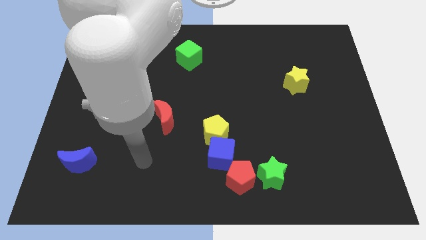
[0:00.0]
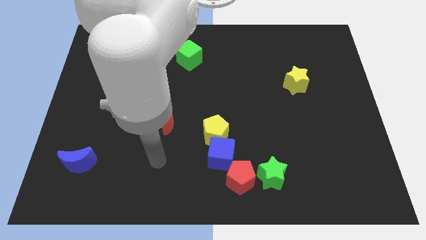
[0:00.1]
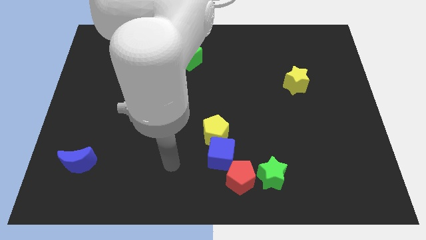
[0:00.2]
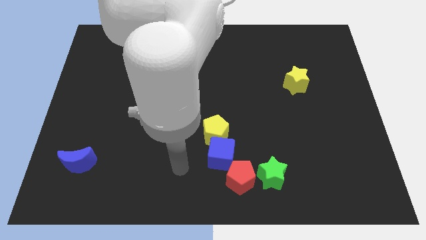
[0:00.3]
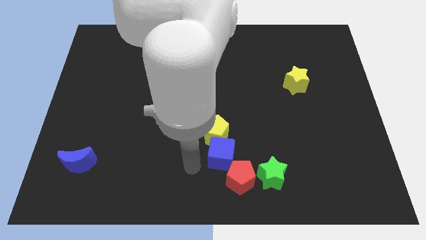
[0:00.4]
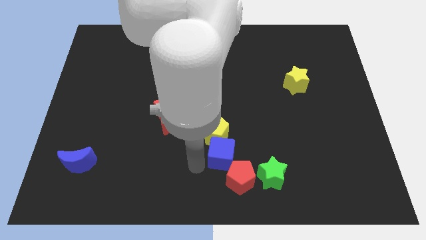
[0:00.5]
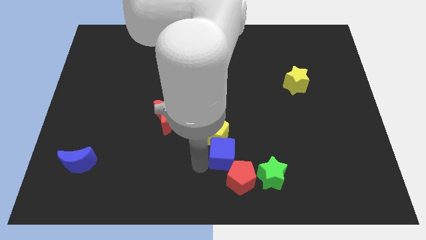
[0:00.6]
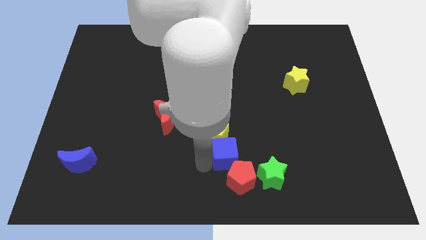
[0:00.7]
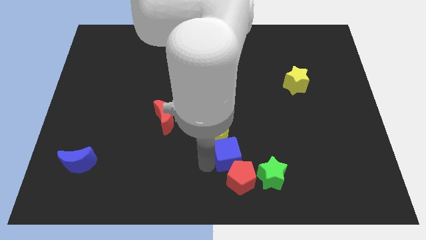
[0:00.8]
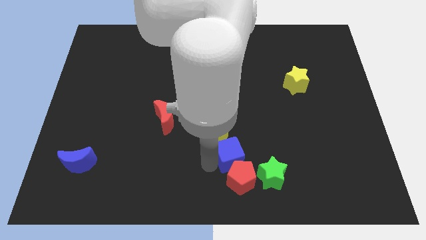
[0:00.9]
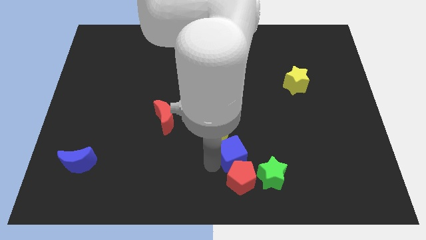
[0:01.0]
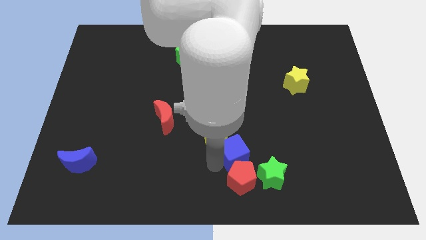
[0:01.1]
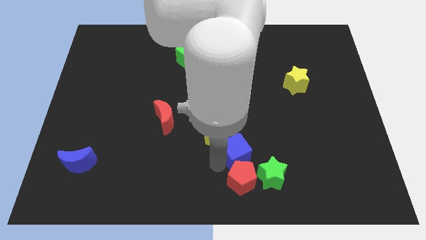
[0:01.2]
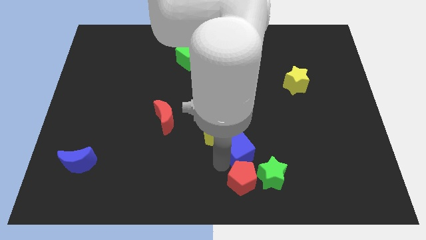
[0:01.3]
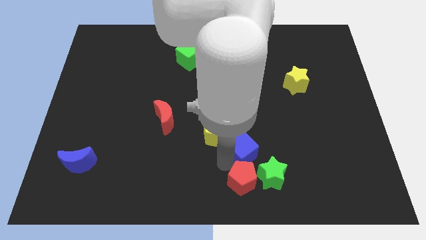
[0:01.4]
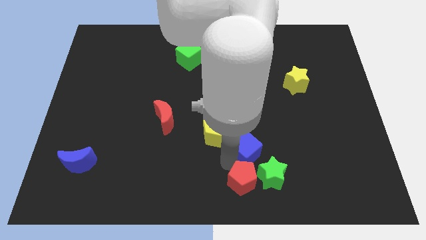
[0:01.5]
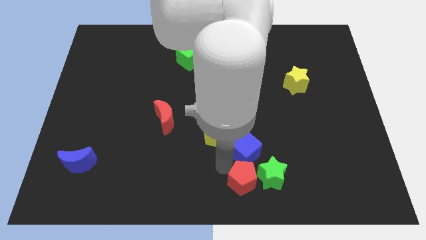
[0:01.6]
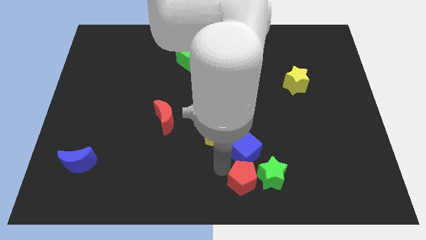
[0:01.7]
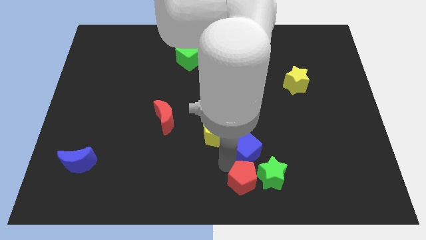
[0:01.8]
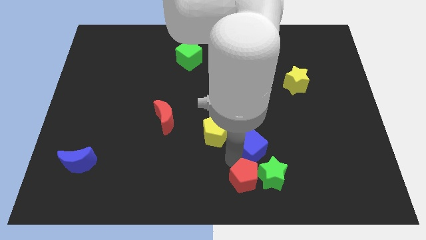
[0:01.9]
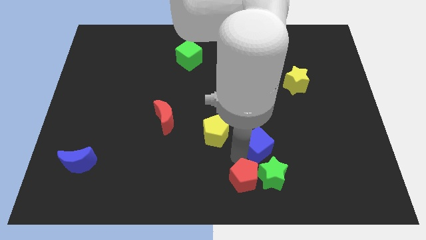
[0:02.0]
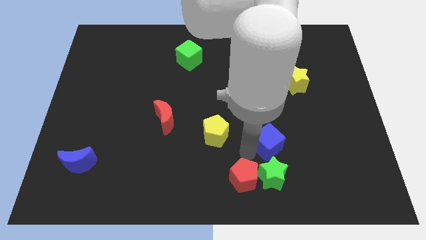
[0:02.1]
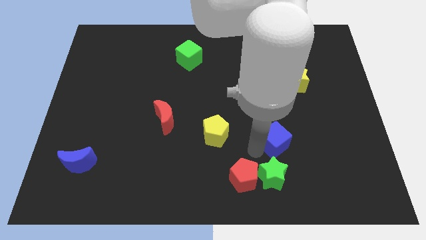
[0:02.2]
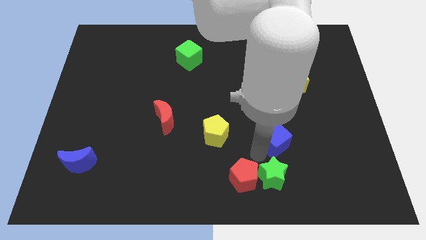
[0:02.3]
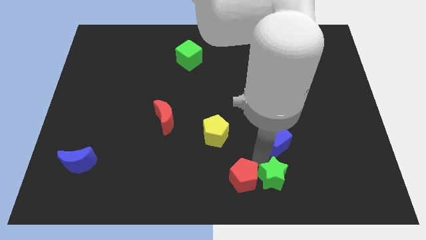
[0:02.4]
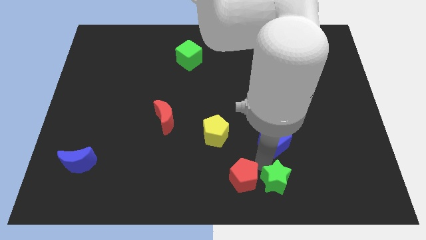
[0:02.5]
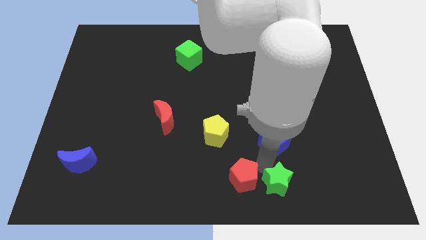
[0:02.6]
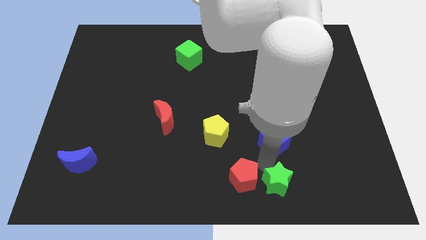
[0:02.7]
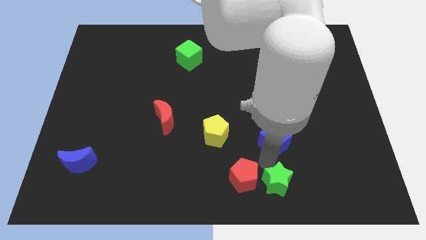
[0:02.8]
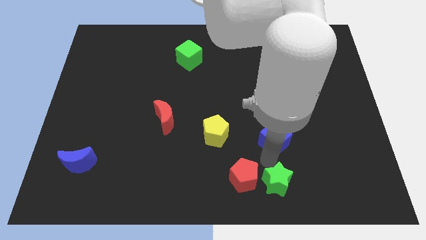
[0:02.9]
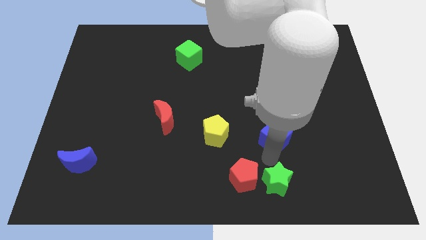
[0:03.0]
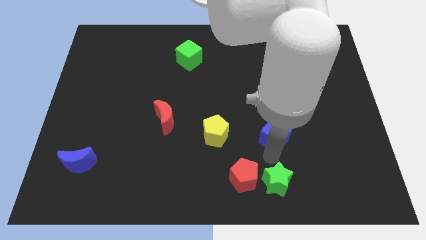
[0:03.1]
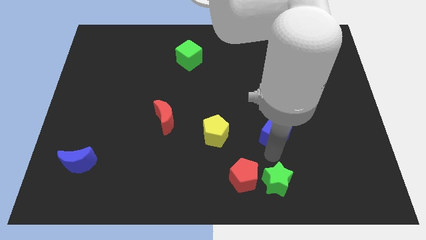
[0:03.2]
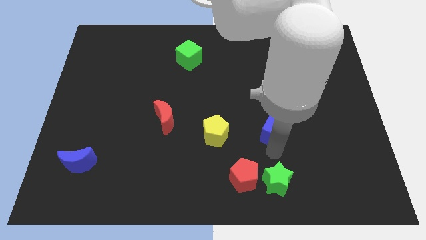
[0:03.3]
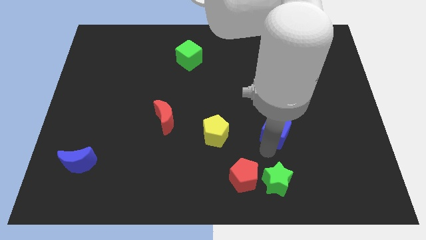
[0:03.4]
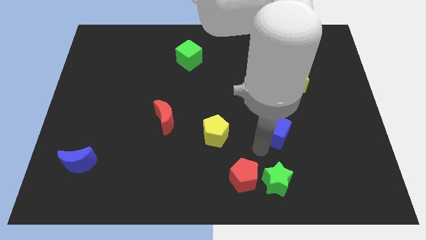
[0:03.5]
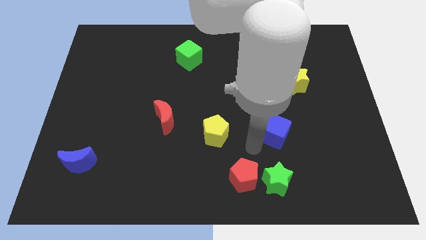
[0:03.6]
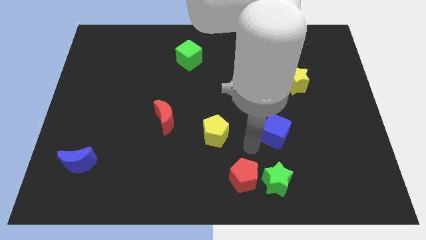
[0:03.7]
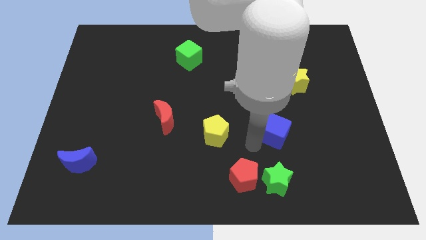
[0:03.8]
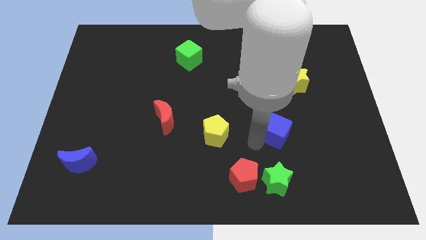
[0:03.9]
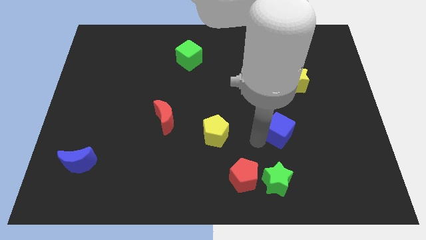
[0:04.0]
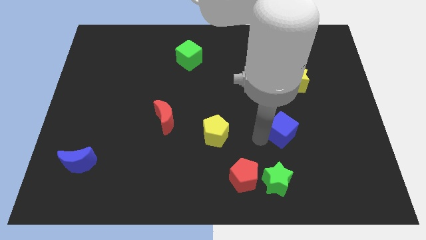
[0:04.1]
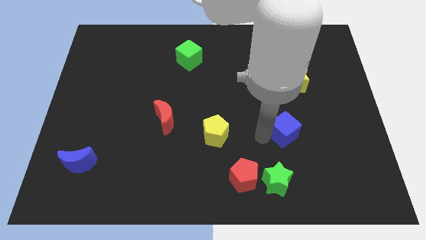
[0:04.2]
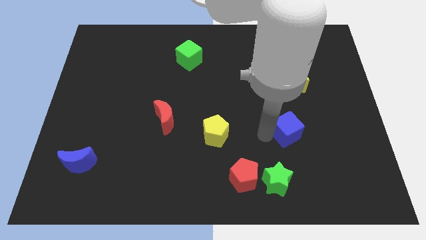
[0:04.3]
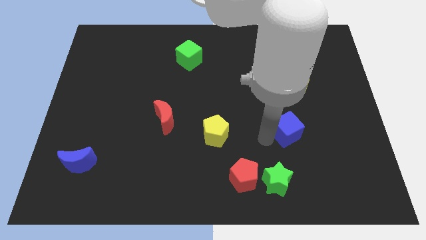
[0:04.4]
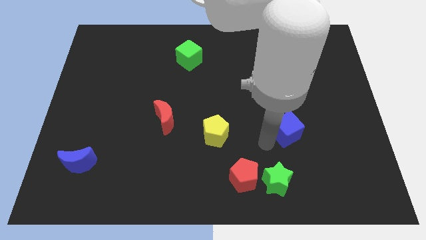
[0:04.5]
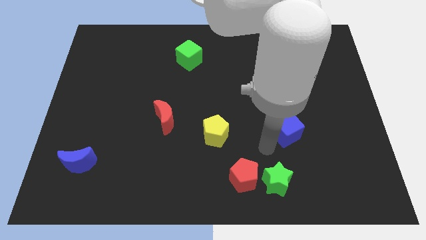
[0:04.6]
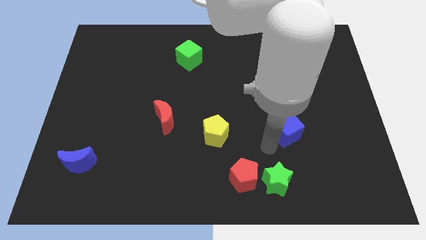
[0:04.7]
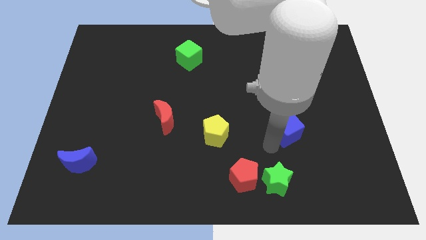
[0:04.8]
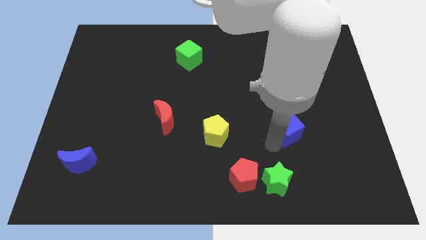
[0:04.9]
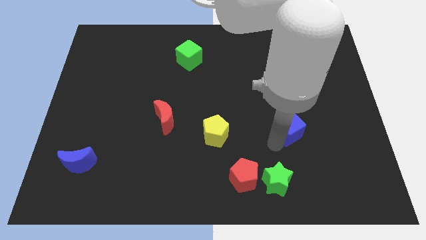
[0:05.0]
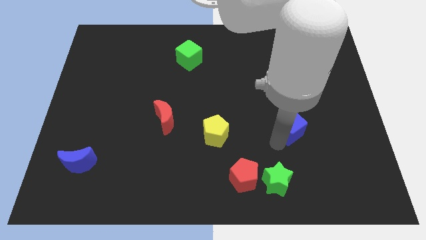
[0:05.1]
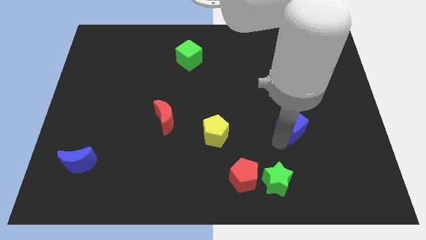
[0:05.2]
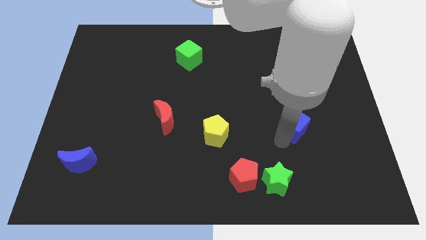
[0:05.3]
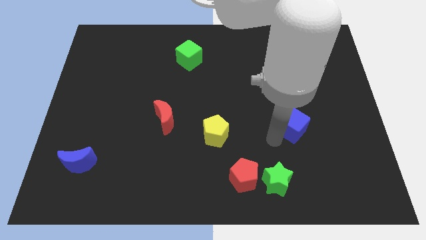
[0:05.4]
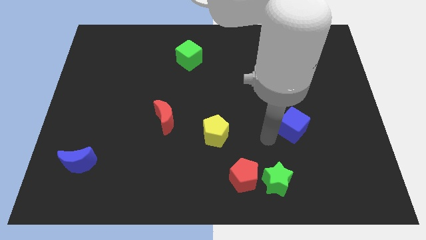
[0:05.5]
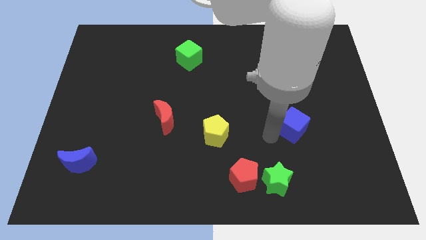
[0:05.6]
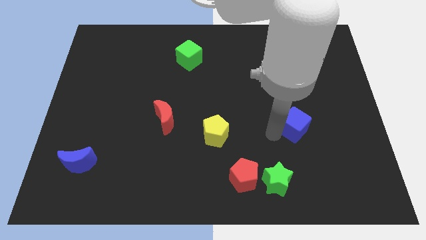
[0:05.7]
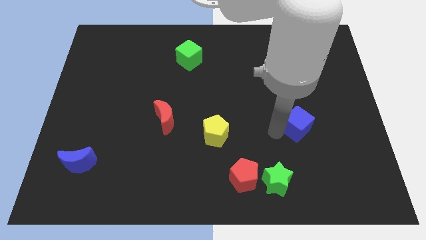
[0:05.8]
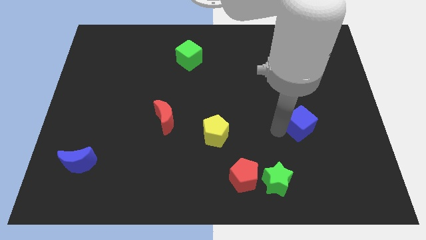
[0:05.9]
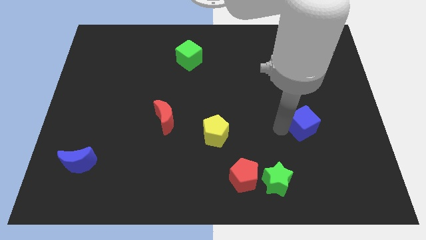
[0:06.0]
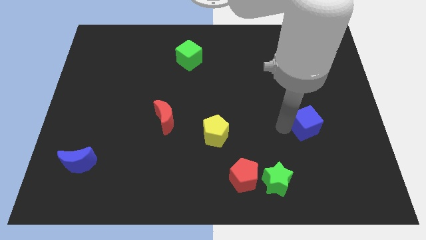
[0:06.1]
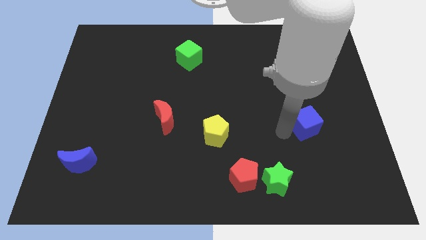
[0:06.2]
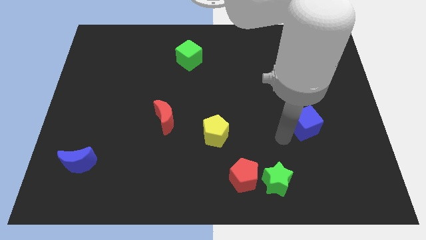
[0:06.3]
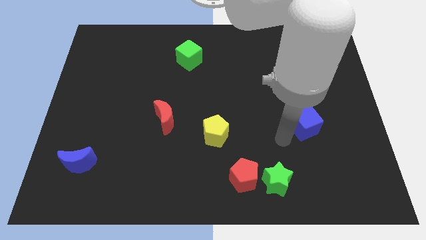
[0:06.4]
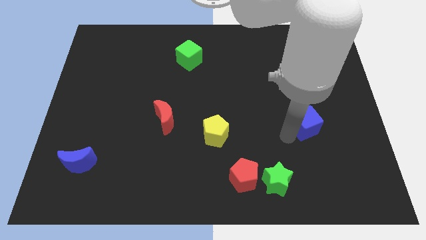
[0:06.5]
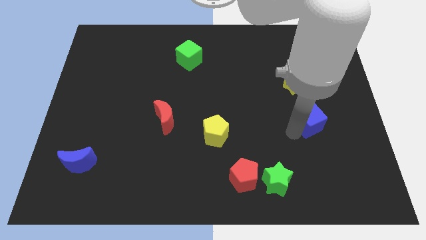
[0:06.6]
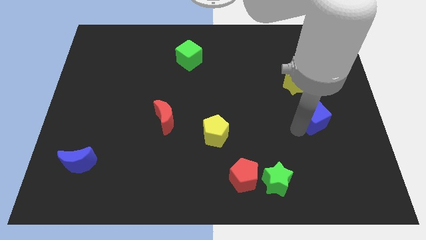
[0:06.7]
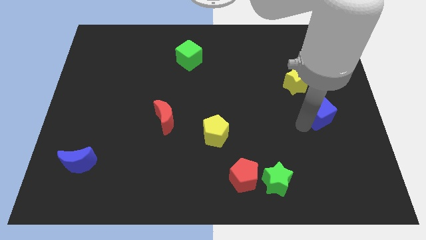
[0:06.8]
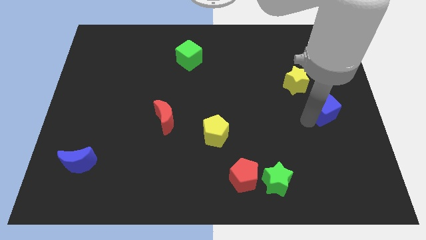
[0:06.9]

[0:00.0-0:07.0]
put the blue cube to the right side
